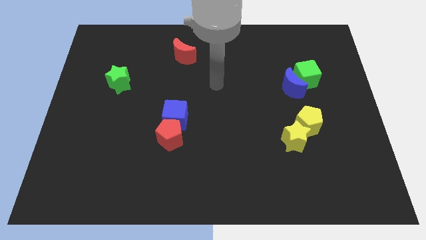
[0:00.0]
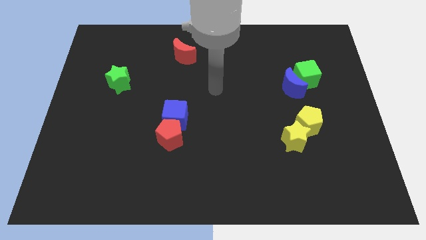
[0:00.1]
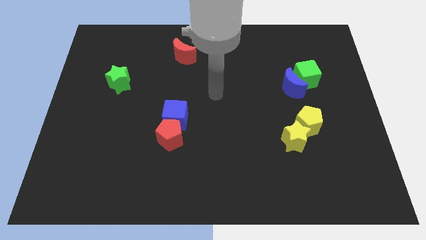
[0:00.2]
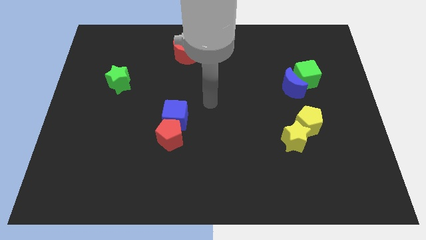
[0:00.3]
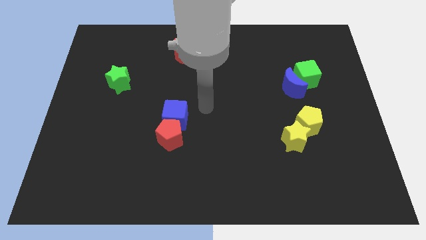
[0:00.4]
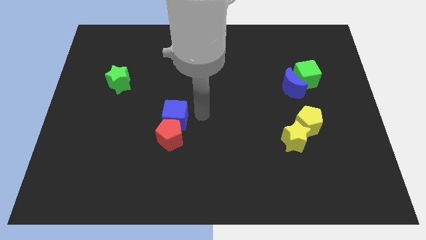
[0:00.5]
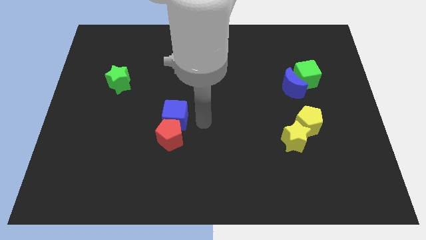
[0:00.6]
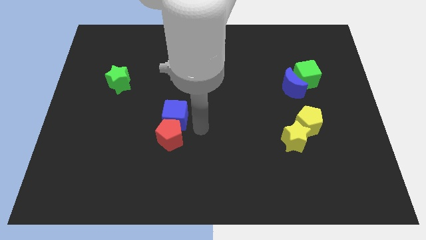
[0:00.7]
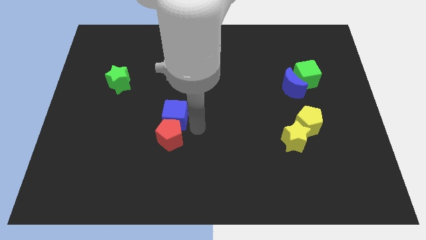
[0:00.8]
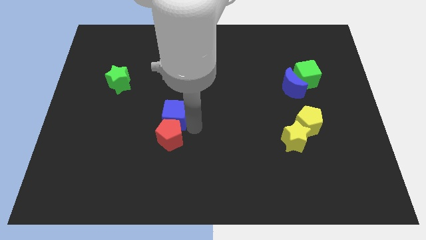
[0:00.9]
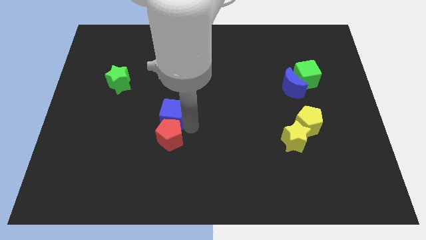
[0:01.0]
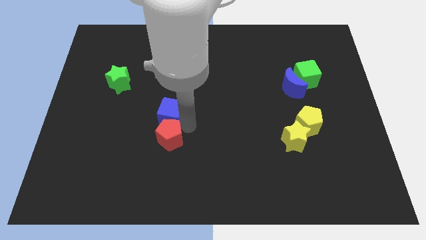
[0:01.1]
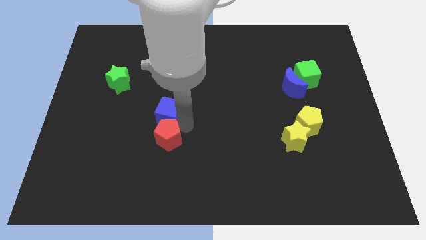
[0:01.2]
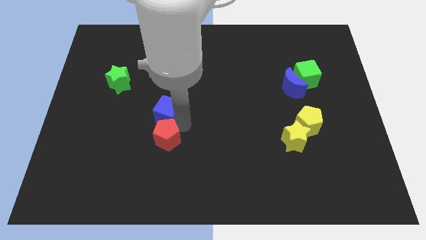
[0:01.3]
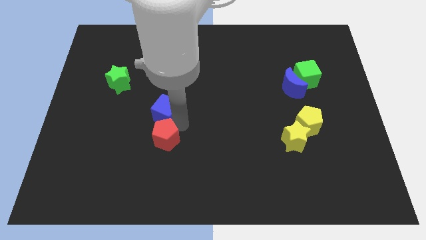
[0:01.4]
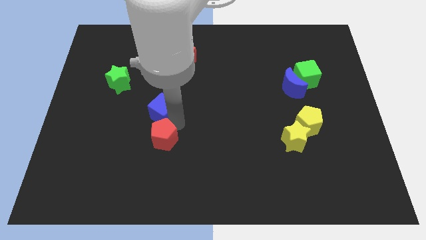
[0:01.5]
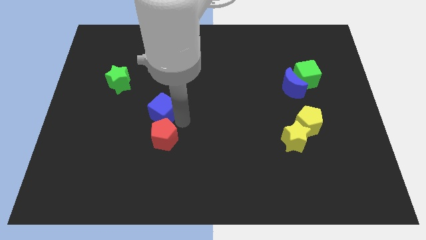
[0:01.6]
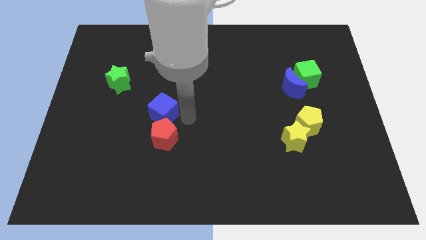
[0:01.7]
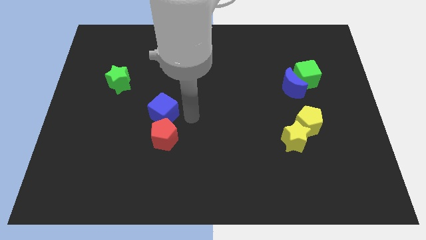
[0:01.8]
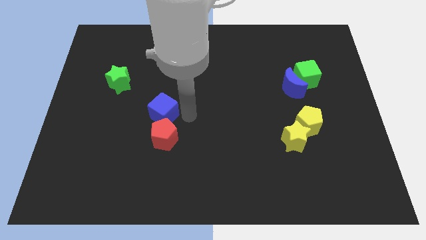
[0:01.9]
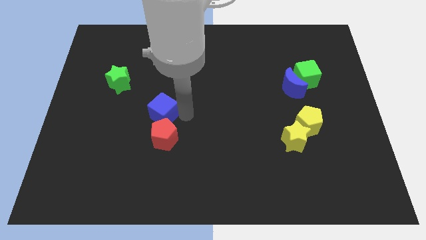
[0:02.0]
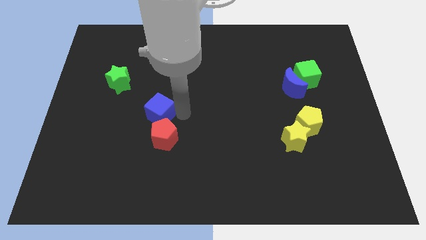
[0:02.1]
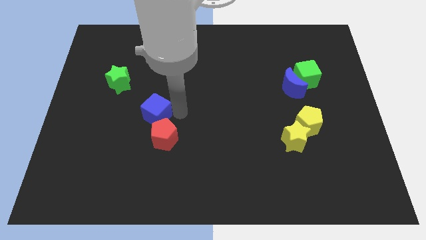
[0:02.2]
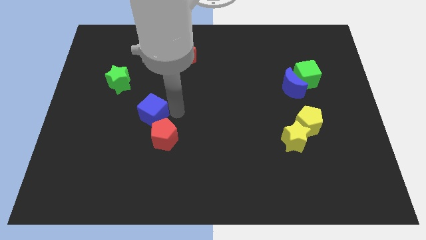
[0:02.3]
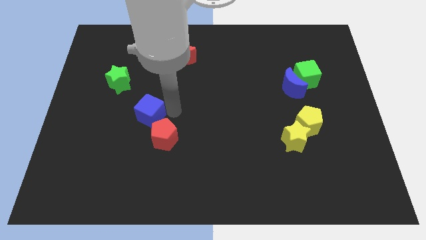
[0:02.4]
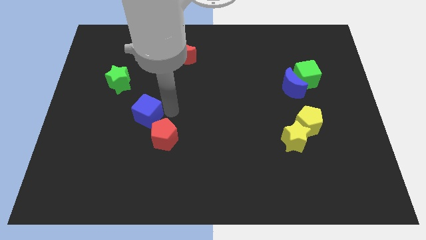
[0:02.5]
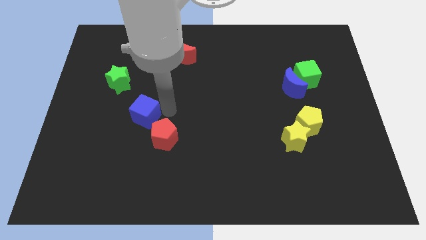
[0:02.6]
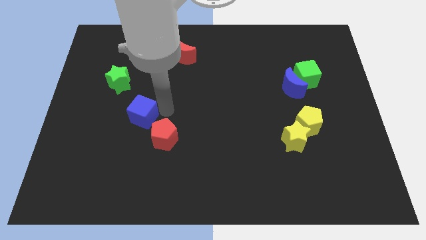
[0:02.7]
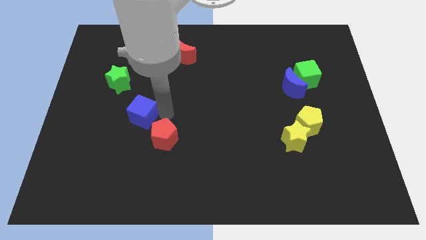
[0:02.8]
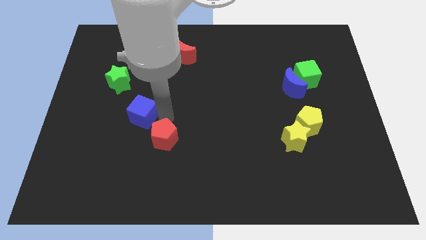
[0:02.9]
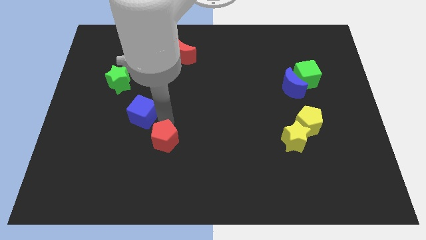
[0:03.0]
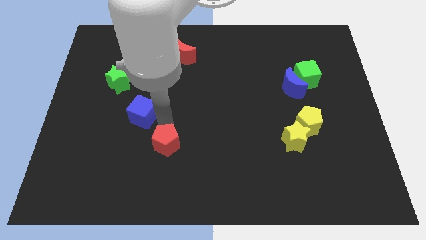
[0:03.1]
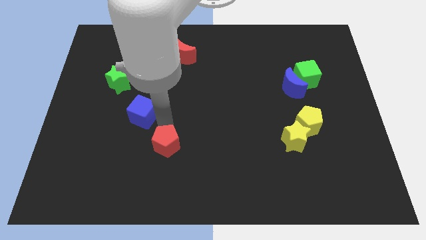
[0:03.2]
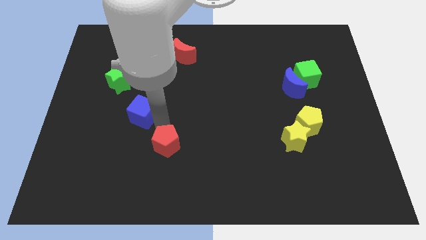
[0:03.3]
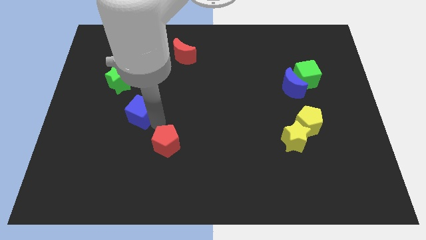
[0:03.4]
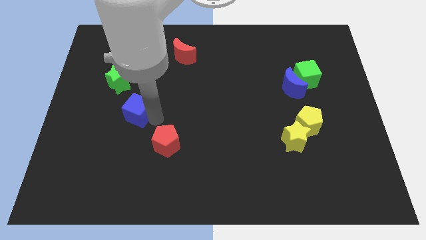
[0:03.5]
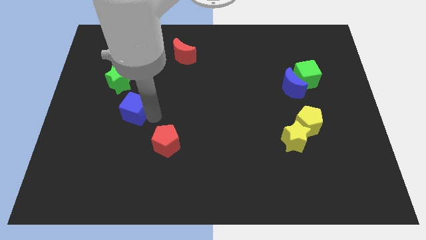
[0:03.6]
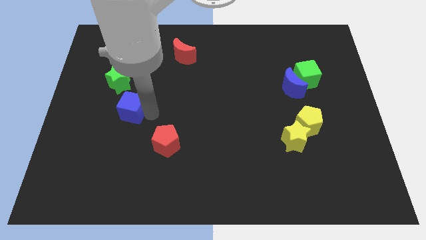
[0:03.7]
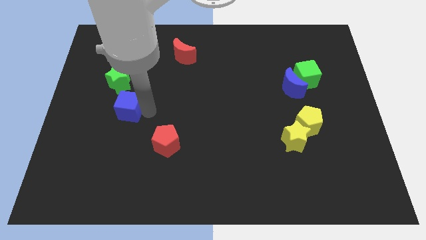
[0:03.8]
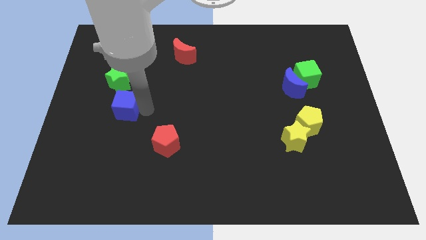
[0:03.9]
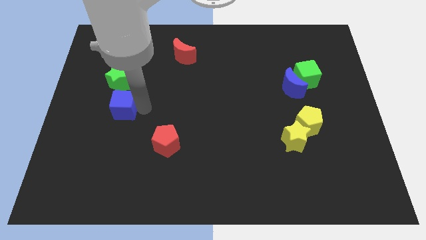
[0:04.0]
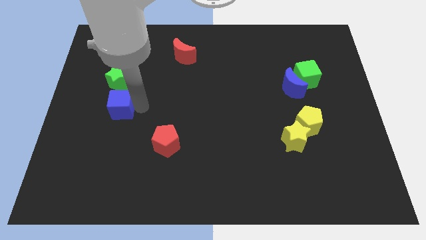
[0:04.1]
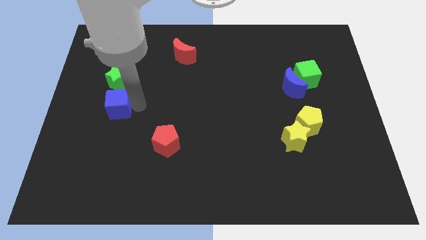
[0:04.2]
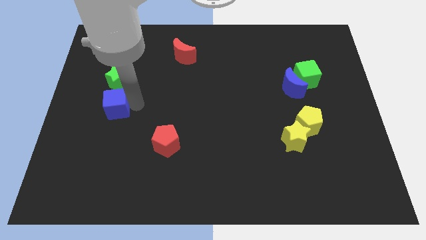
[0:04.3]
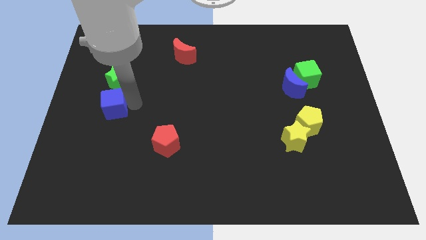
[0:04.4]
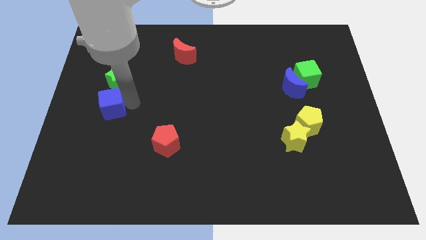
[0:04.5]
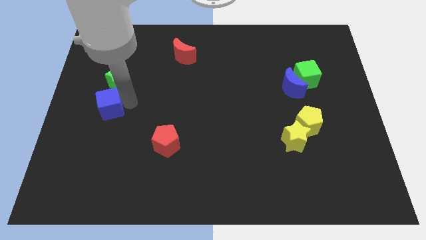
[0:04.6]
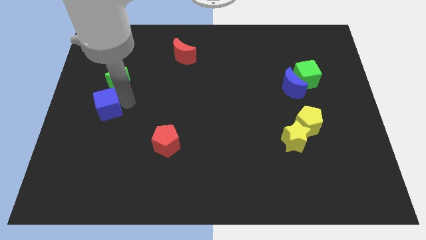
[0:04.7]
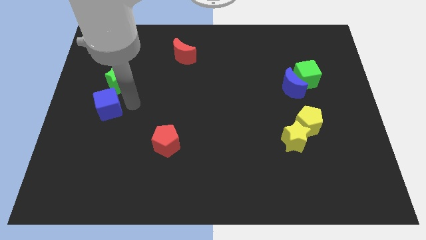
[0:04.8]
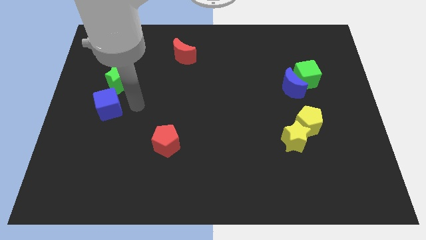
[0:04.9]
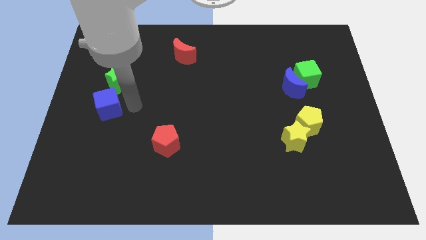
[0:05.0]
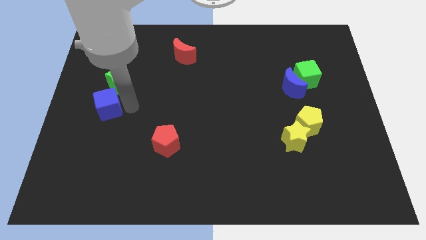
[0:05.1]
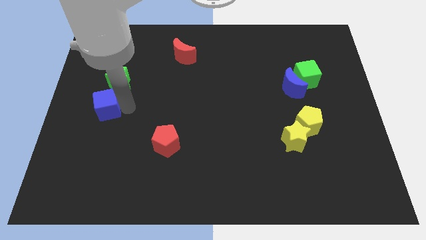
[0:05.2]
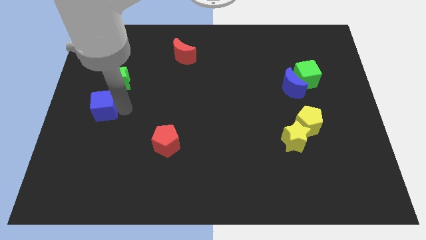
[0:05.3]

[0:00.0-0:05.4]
move the blue cube to the center left

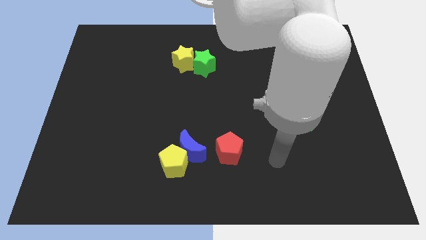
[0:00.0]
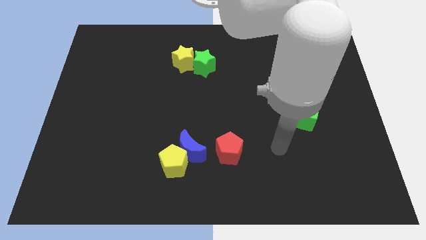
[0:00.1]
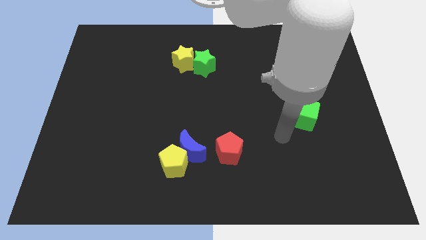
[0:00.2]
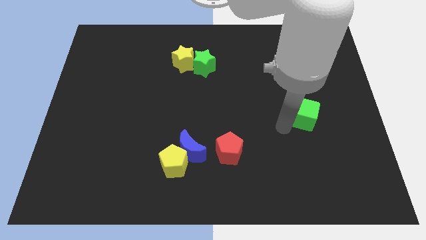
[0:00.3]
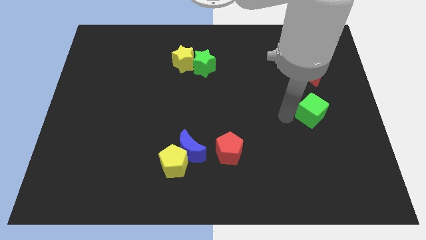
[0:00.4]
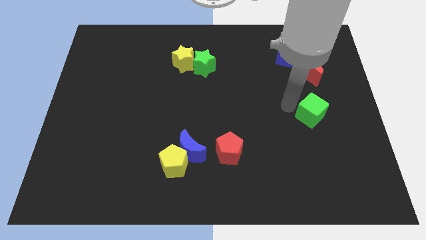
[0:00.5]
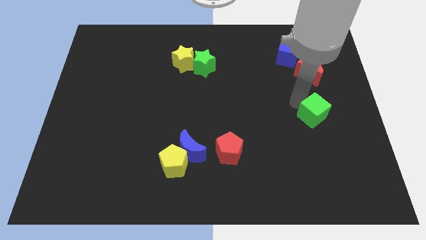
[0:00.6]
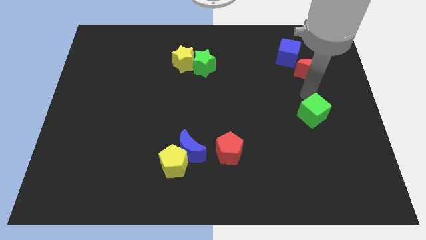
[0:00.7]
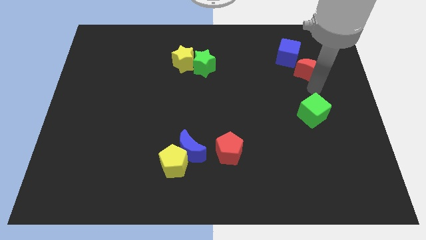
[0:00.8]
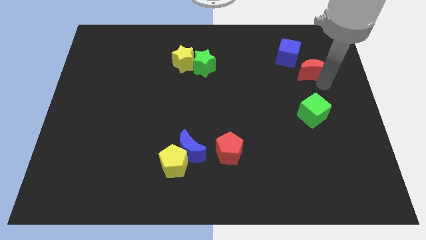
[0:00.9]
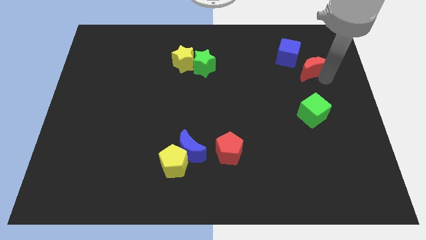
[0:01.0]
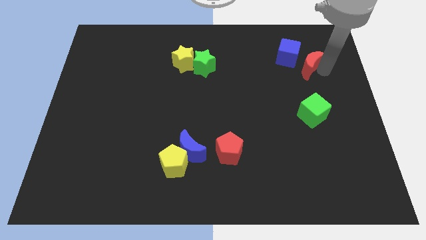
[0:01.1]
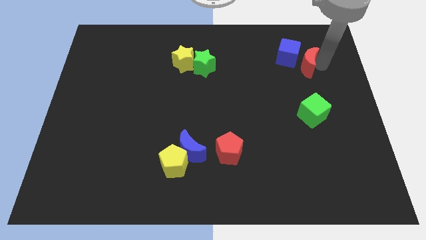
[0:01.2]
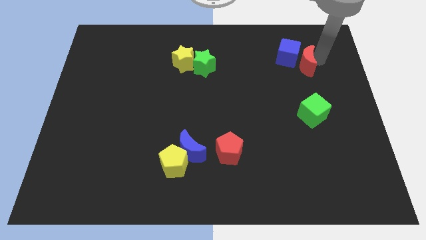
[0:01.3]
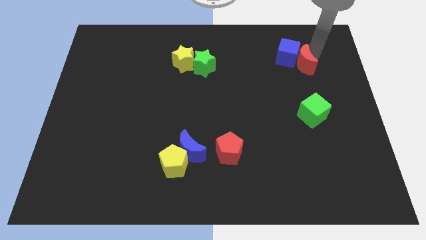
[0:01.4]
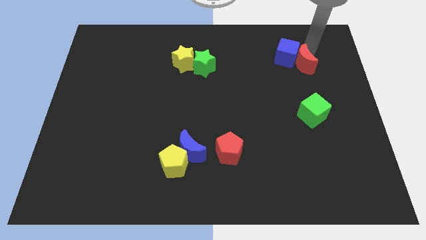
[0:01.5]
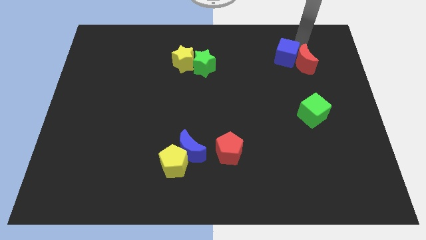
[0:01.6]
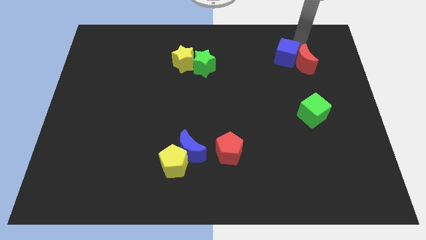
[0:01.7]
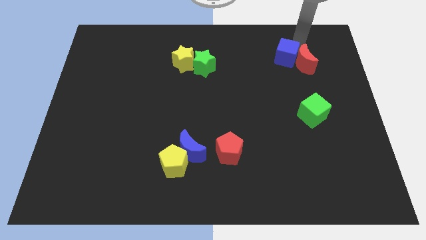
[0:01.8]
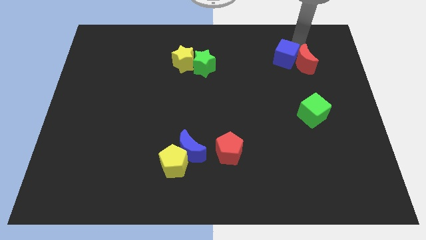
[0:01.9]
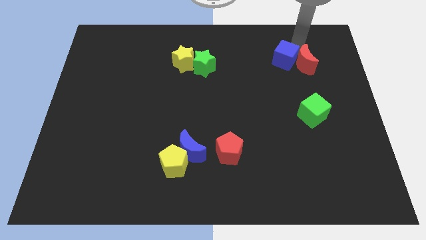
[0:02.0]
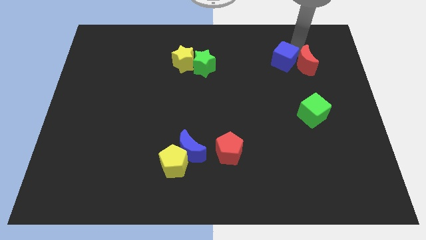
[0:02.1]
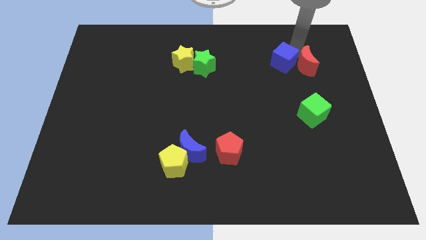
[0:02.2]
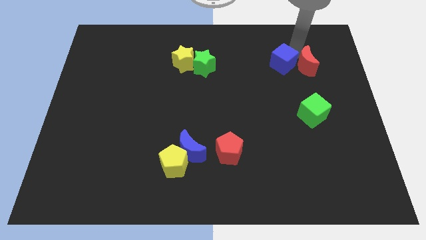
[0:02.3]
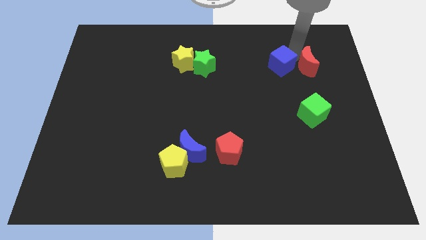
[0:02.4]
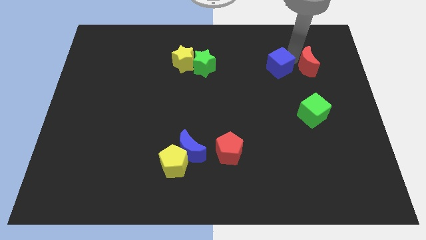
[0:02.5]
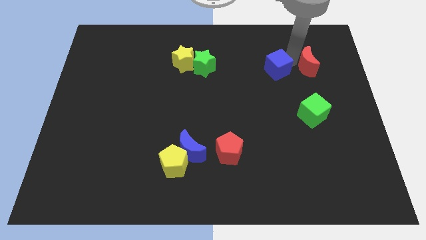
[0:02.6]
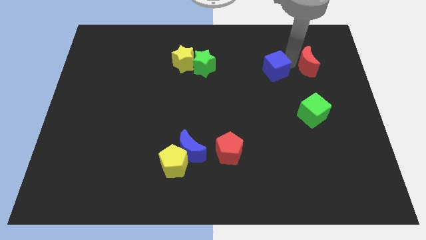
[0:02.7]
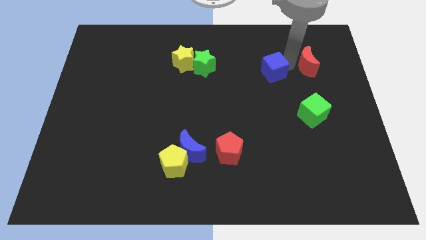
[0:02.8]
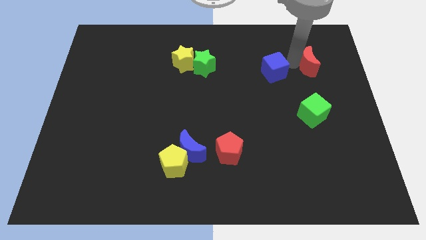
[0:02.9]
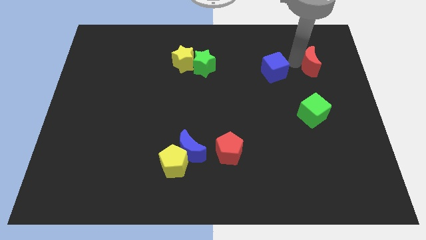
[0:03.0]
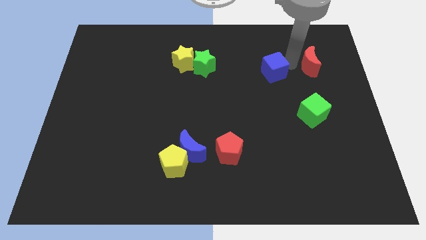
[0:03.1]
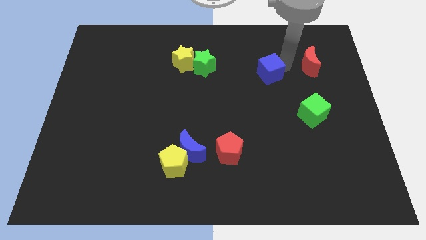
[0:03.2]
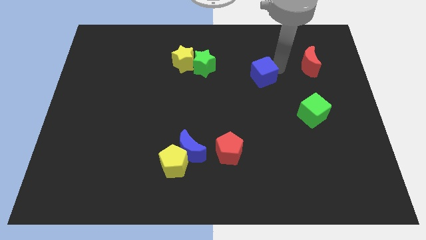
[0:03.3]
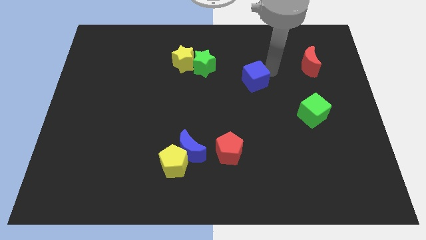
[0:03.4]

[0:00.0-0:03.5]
push the blue cube to the middle of the board
